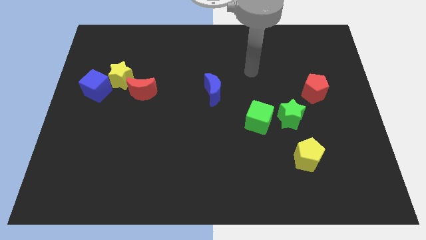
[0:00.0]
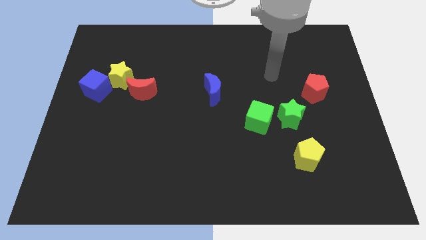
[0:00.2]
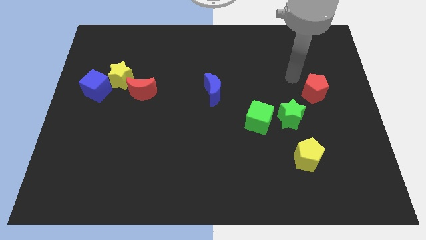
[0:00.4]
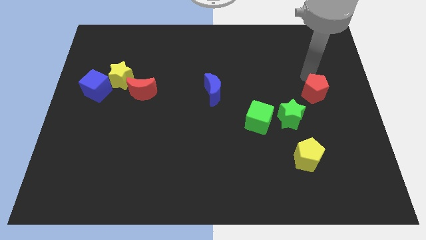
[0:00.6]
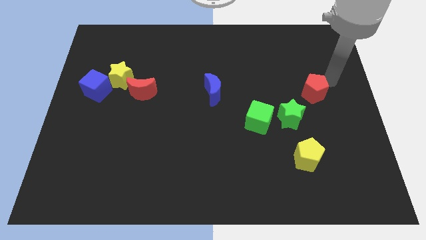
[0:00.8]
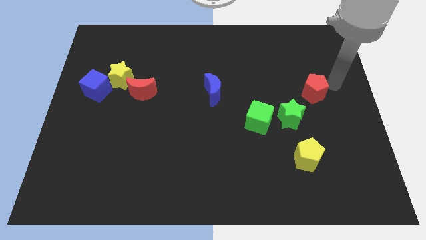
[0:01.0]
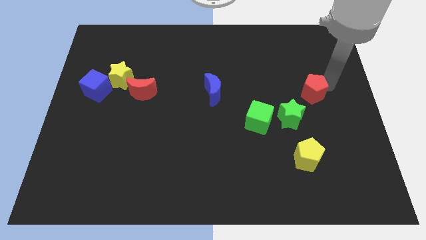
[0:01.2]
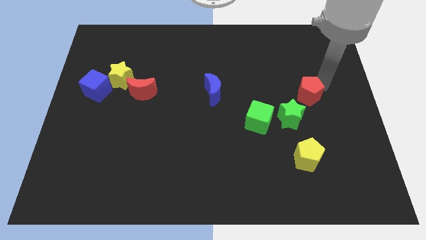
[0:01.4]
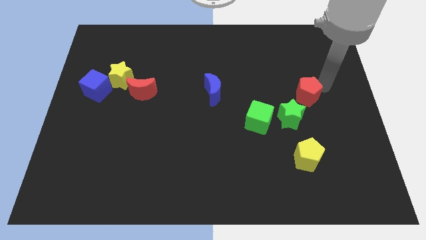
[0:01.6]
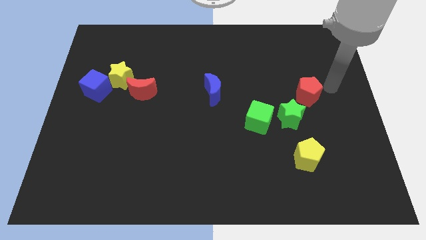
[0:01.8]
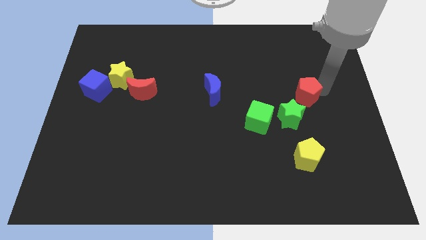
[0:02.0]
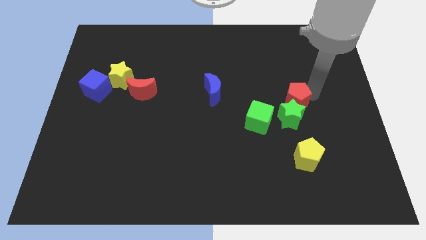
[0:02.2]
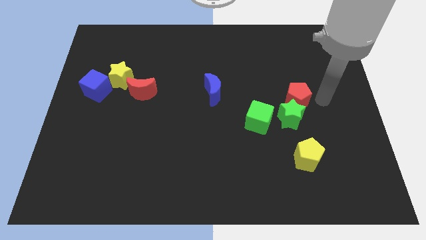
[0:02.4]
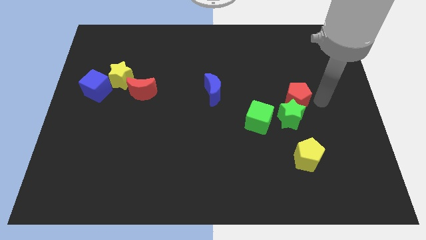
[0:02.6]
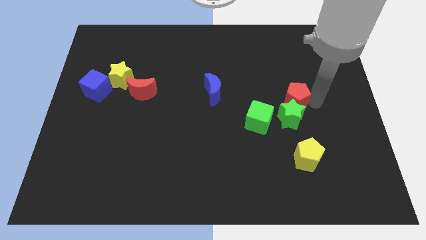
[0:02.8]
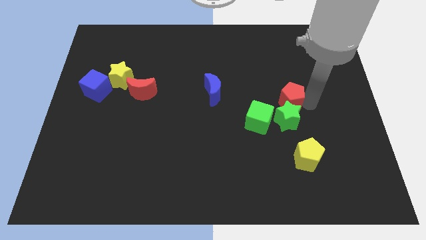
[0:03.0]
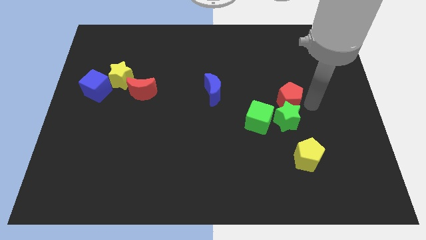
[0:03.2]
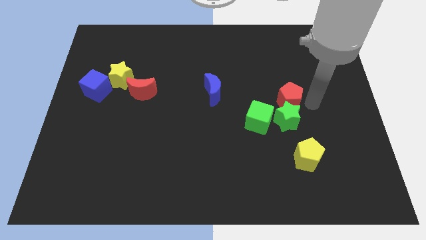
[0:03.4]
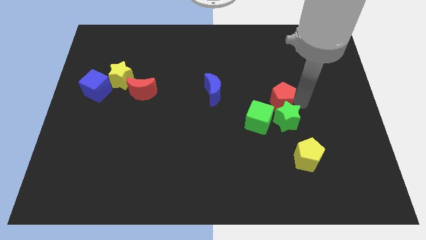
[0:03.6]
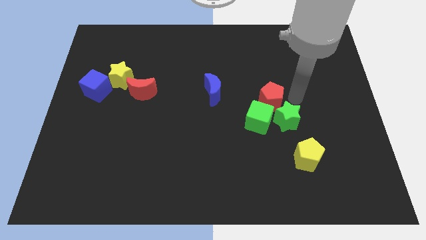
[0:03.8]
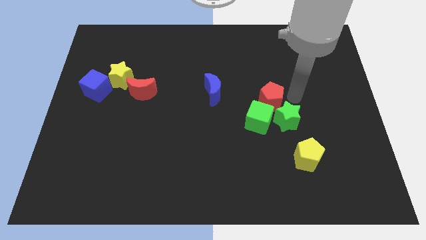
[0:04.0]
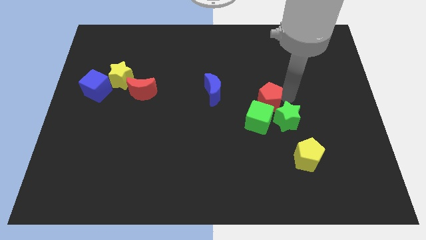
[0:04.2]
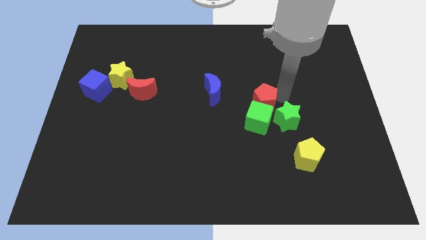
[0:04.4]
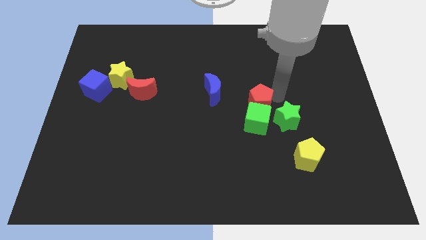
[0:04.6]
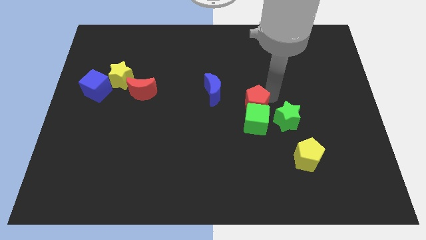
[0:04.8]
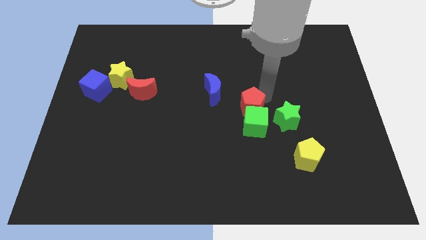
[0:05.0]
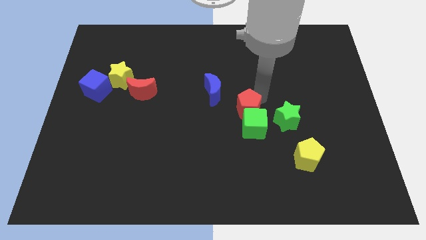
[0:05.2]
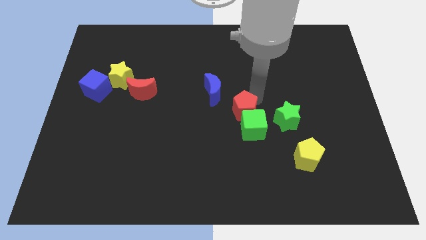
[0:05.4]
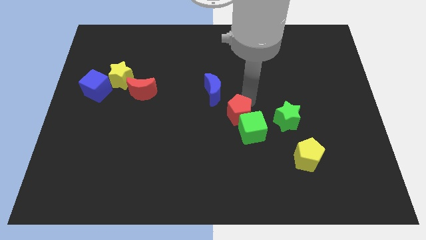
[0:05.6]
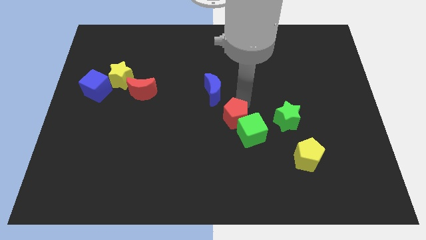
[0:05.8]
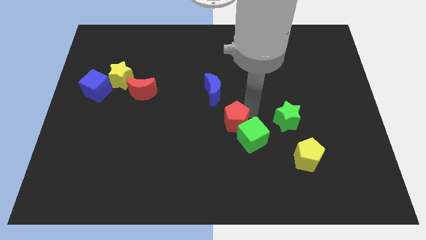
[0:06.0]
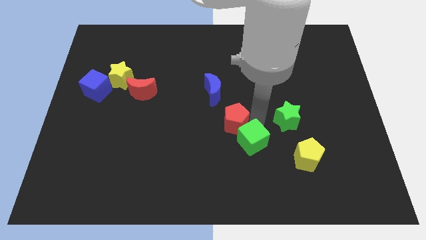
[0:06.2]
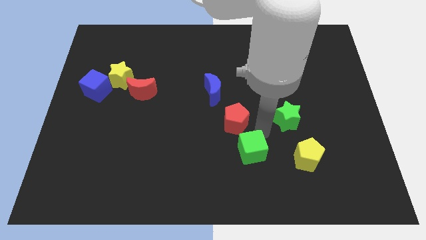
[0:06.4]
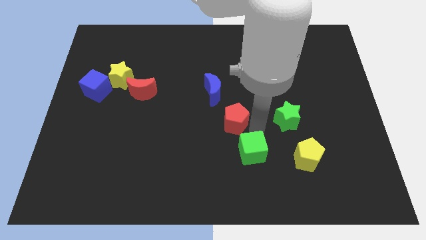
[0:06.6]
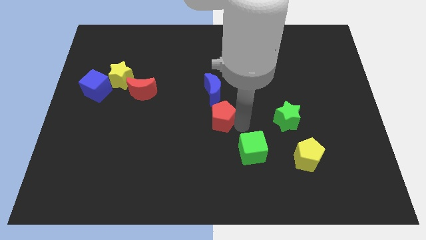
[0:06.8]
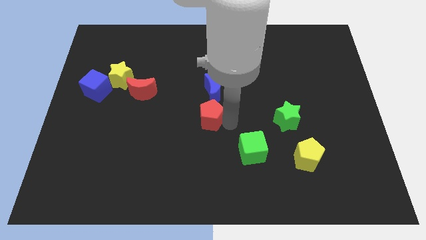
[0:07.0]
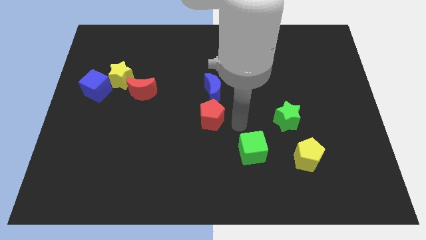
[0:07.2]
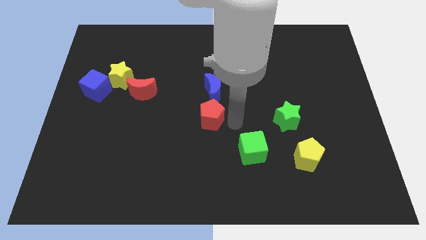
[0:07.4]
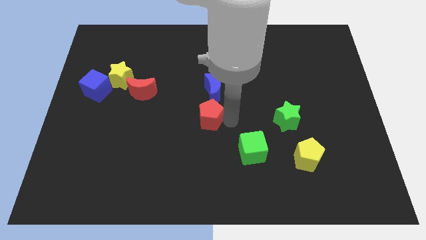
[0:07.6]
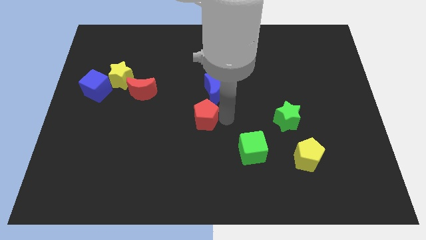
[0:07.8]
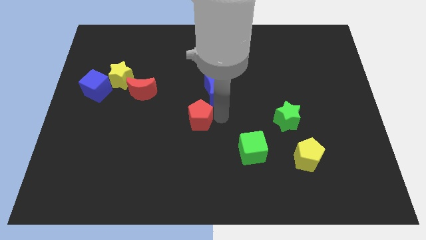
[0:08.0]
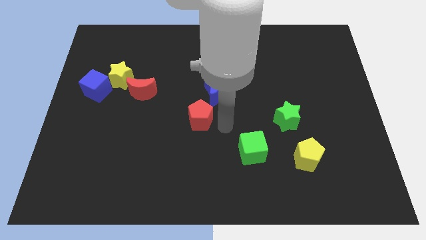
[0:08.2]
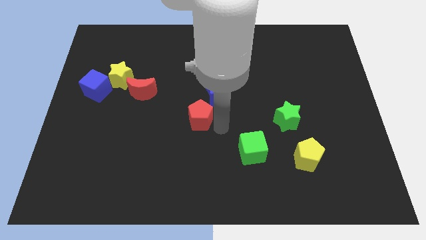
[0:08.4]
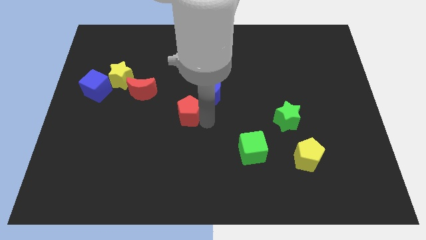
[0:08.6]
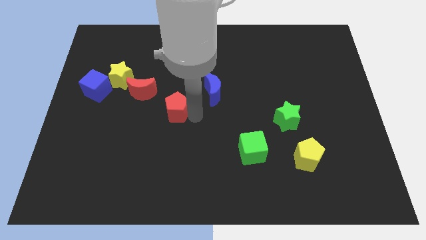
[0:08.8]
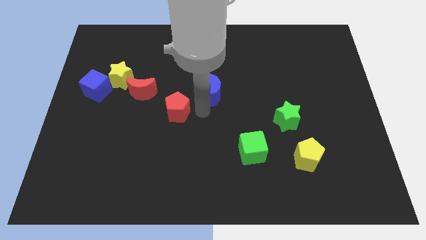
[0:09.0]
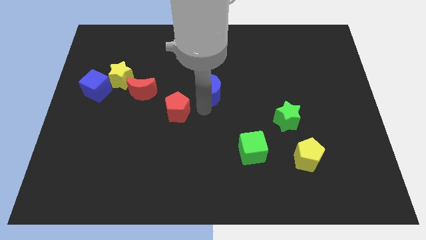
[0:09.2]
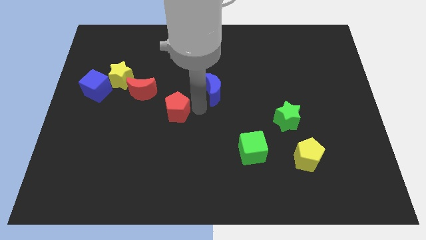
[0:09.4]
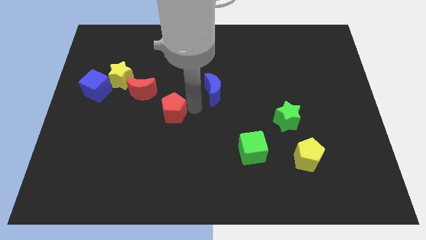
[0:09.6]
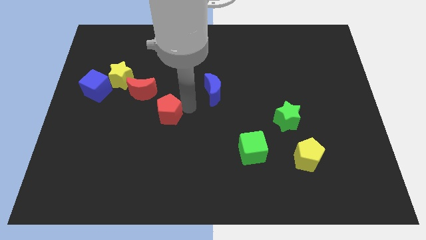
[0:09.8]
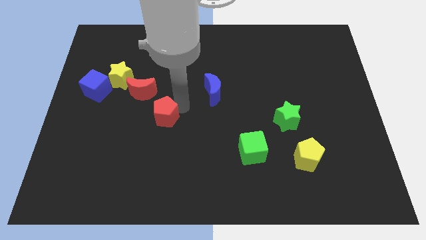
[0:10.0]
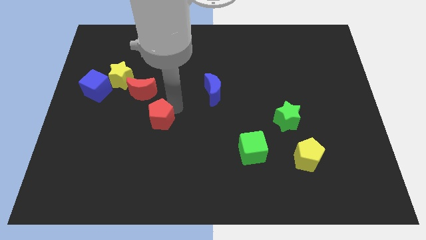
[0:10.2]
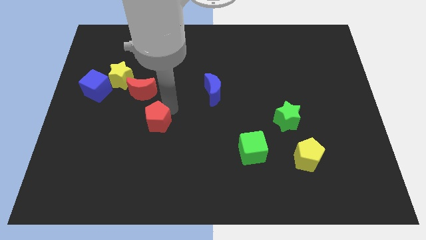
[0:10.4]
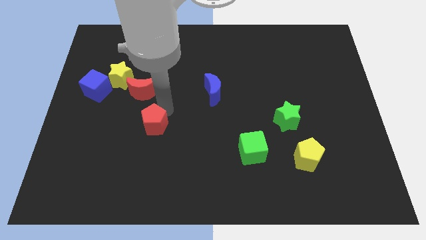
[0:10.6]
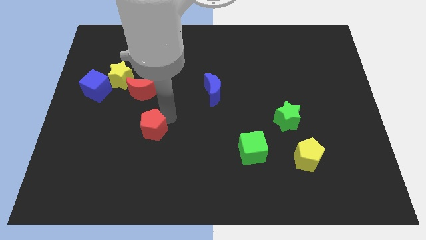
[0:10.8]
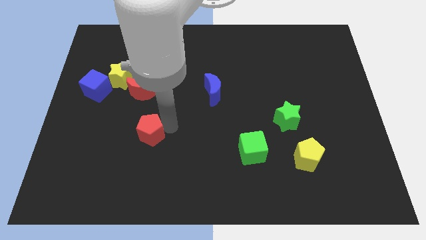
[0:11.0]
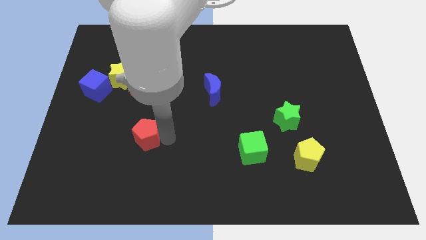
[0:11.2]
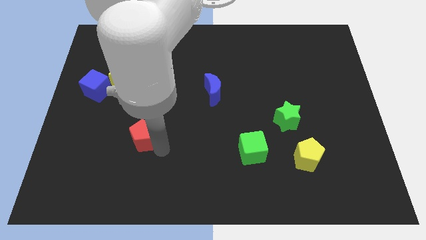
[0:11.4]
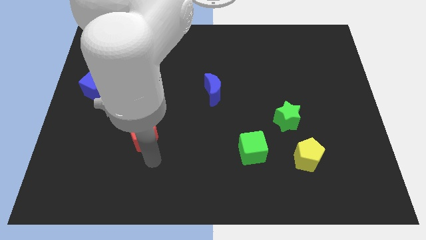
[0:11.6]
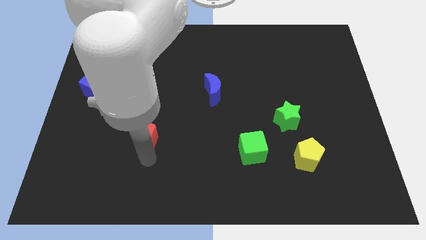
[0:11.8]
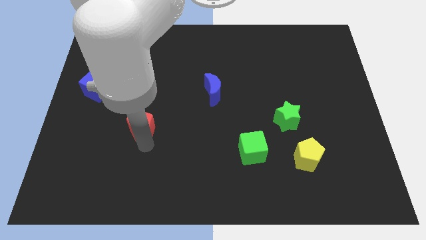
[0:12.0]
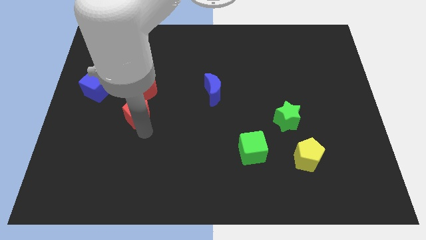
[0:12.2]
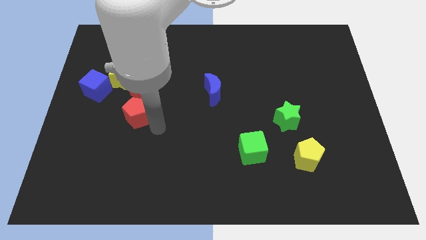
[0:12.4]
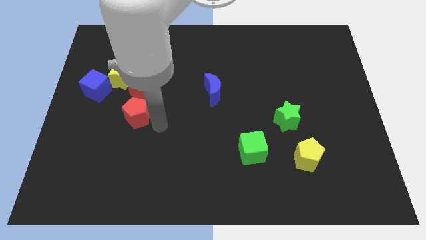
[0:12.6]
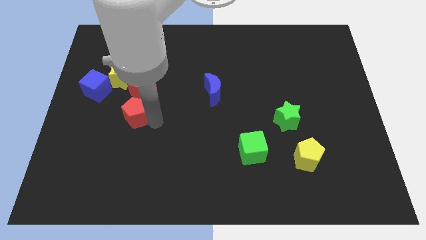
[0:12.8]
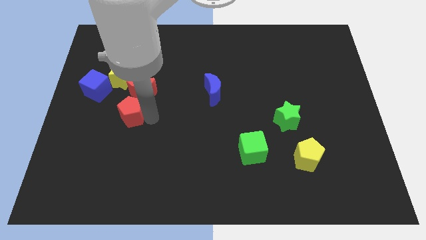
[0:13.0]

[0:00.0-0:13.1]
put the red pentagon diagonally down and to the right of the blue cube

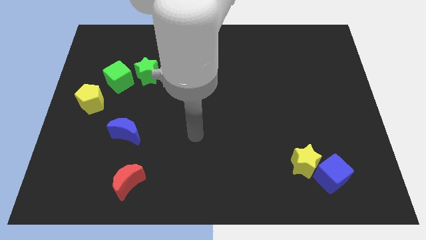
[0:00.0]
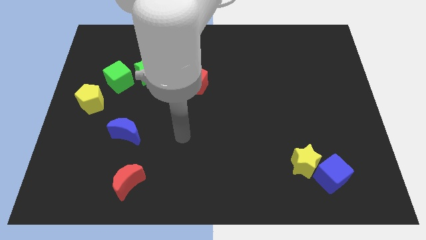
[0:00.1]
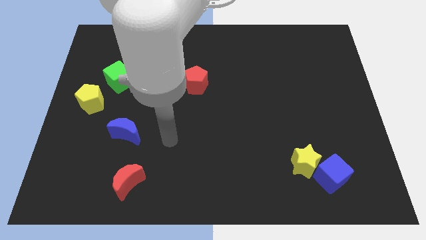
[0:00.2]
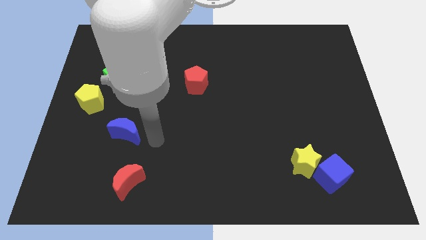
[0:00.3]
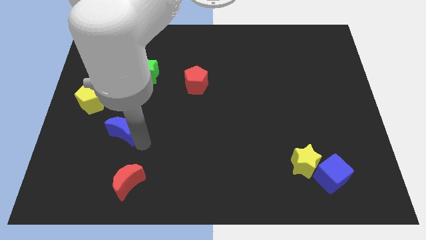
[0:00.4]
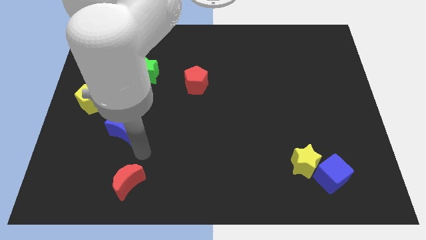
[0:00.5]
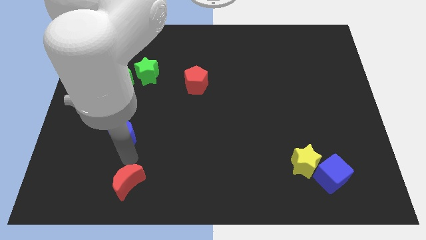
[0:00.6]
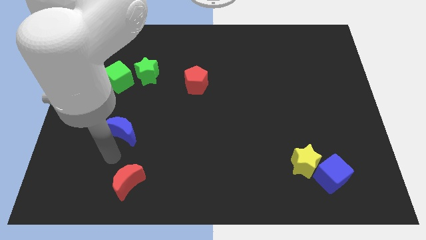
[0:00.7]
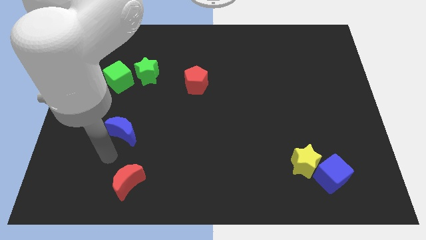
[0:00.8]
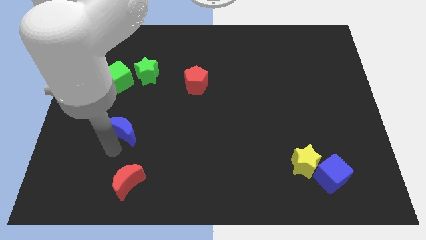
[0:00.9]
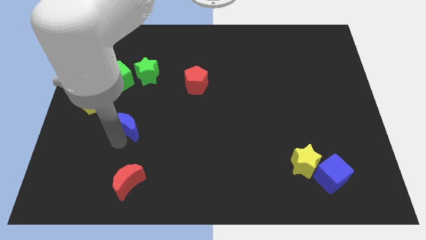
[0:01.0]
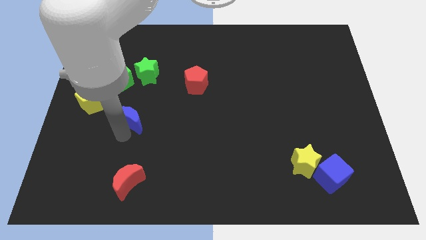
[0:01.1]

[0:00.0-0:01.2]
move the blue moon below the green star
